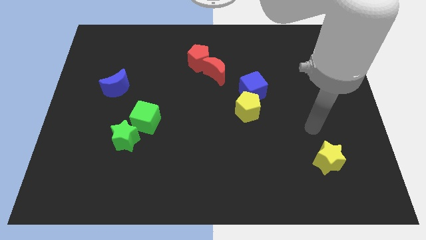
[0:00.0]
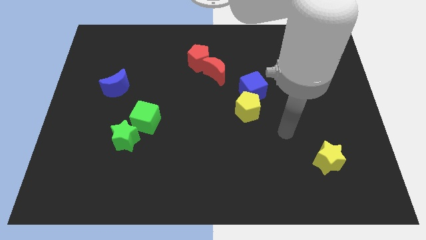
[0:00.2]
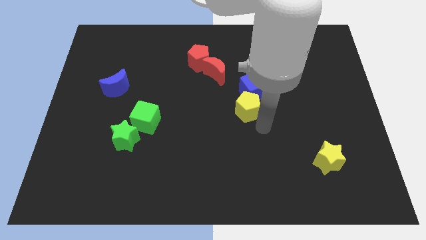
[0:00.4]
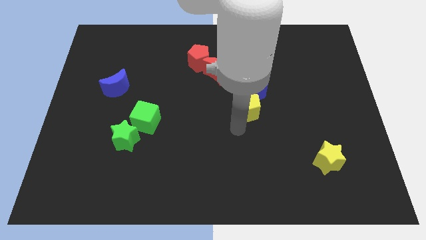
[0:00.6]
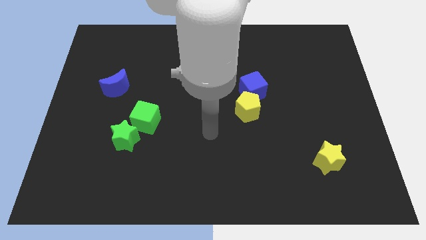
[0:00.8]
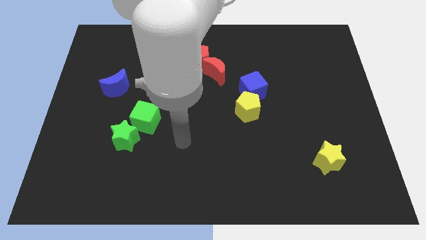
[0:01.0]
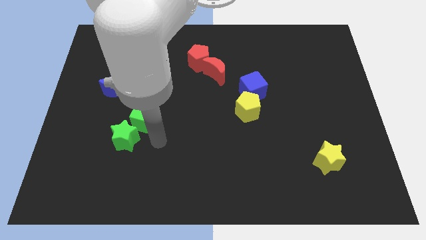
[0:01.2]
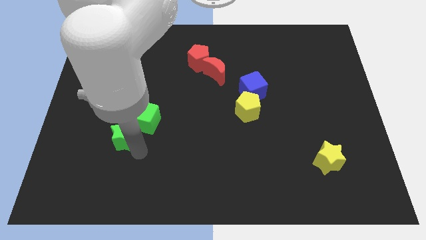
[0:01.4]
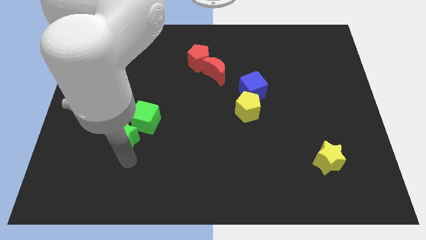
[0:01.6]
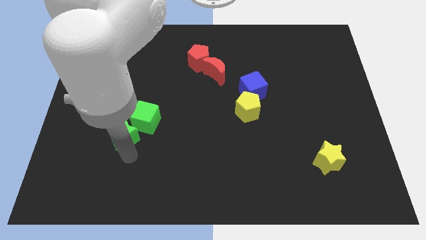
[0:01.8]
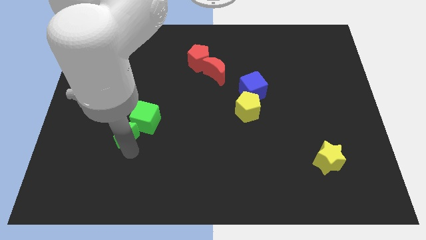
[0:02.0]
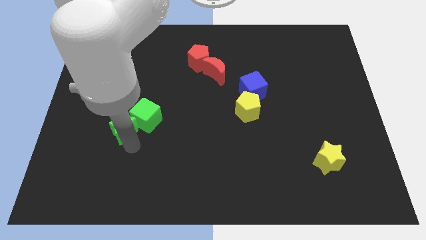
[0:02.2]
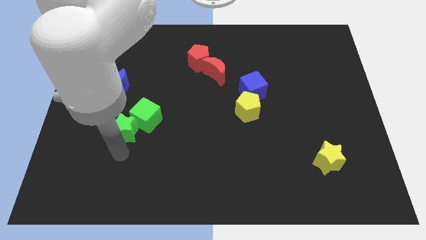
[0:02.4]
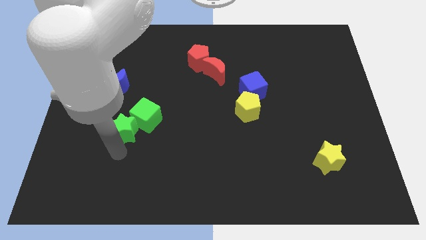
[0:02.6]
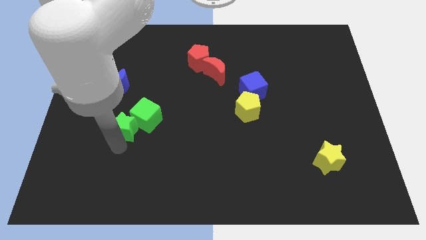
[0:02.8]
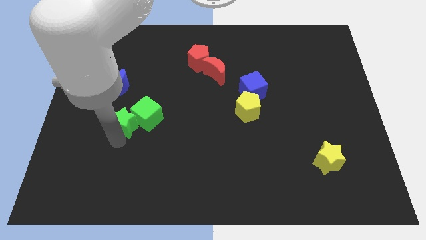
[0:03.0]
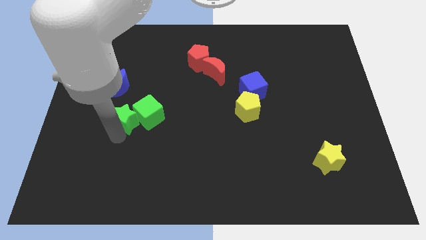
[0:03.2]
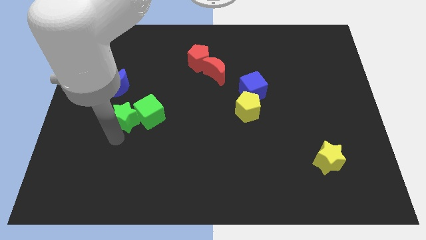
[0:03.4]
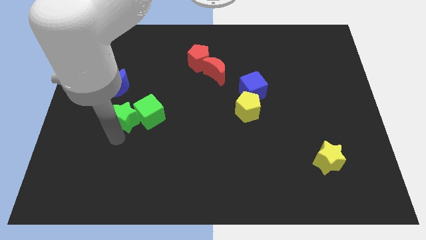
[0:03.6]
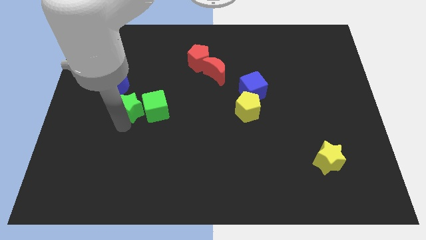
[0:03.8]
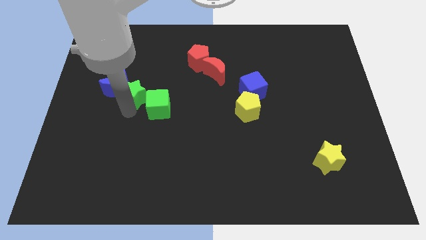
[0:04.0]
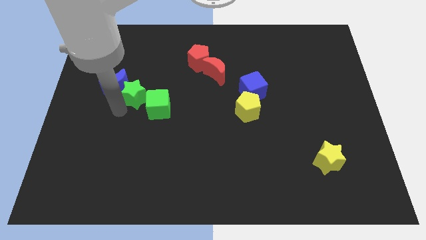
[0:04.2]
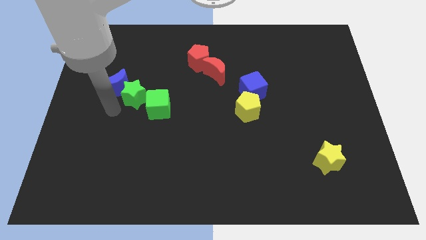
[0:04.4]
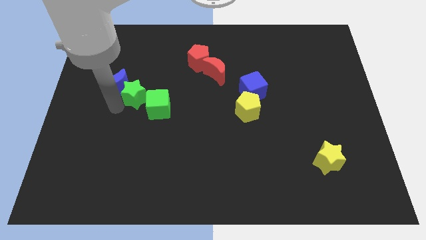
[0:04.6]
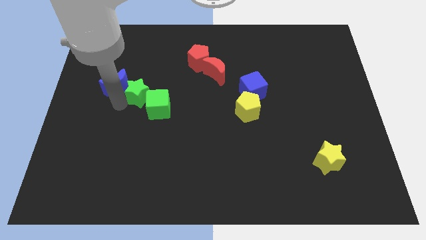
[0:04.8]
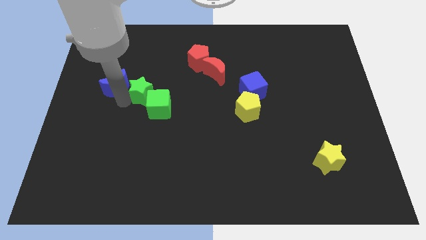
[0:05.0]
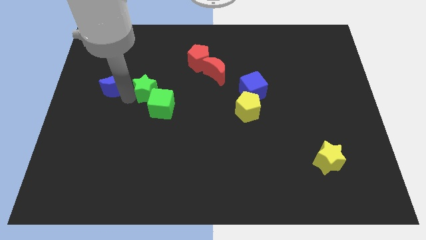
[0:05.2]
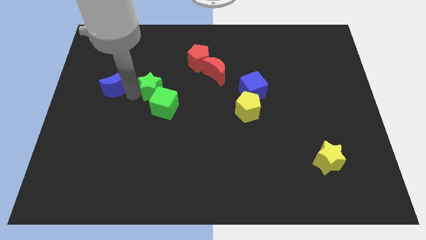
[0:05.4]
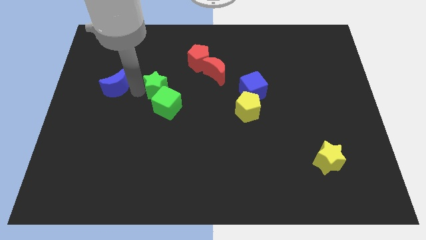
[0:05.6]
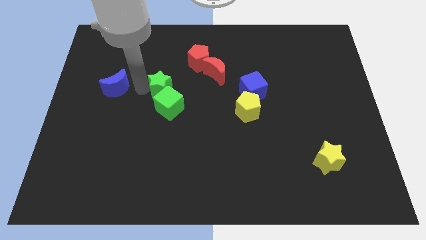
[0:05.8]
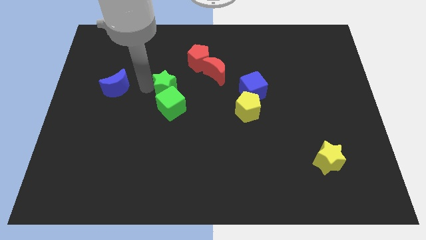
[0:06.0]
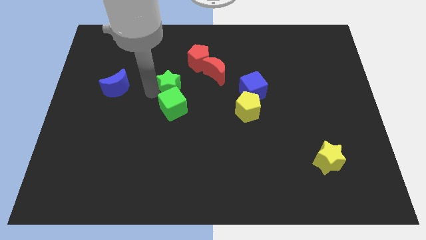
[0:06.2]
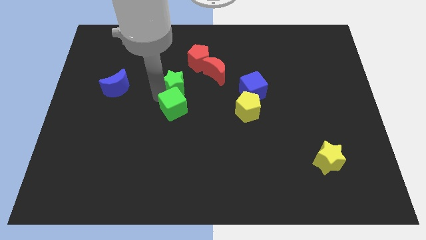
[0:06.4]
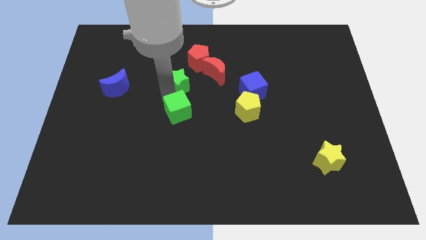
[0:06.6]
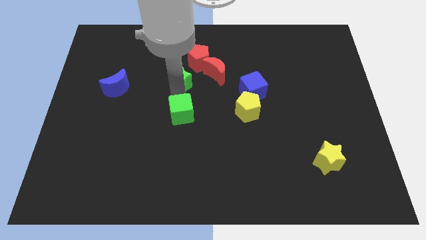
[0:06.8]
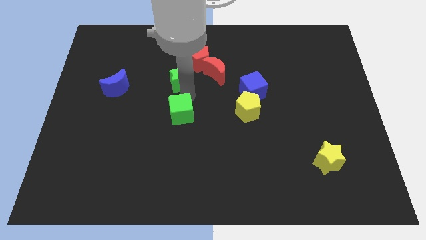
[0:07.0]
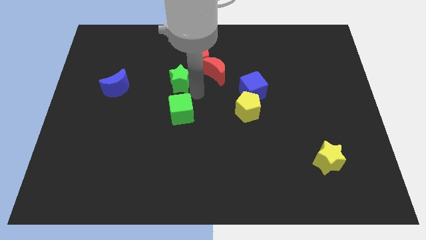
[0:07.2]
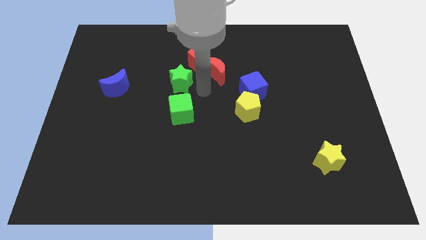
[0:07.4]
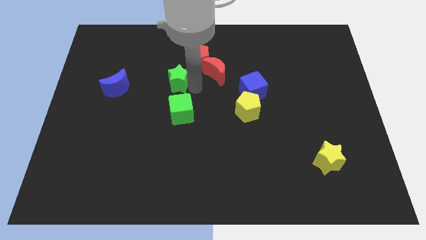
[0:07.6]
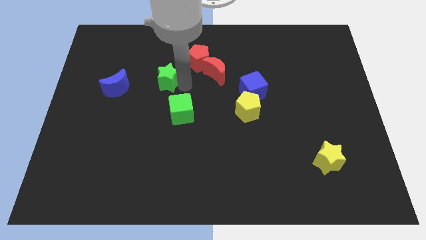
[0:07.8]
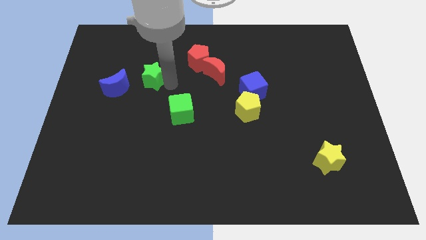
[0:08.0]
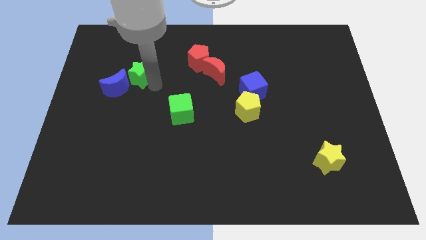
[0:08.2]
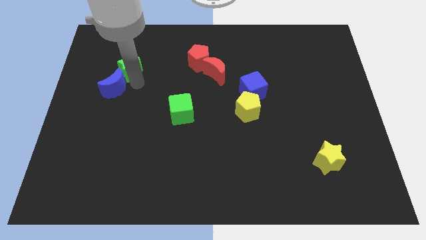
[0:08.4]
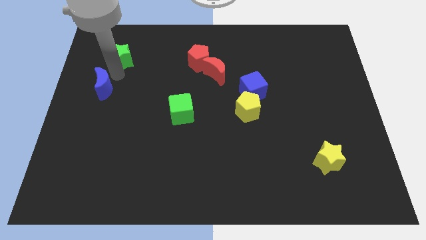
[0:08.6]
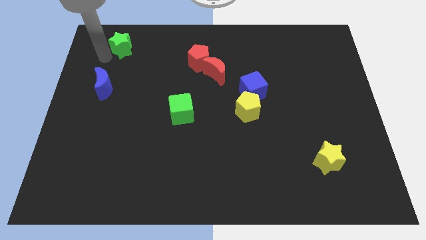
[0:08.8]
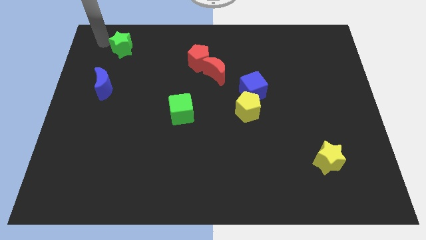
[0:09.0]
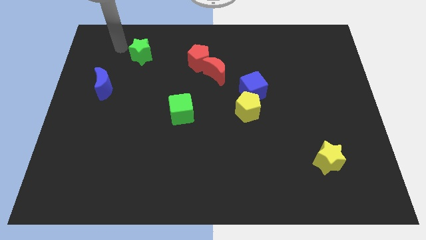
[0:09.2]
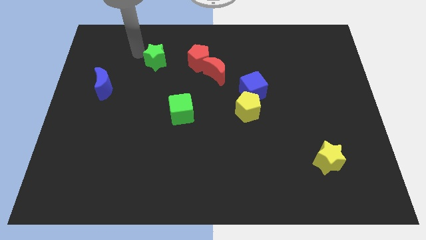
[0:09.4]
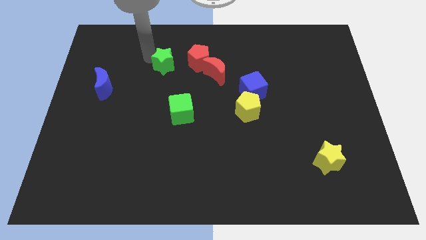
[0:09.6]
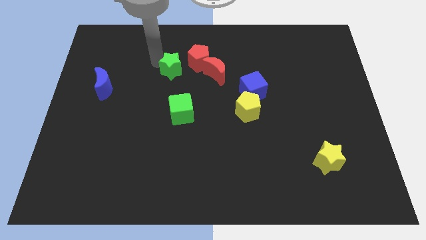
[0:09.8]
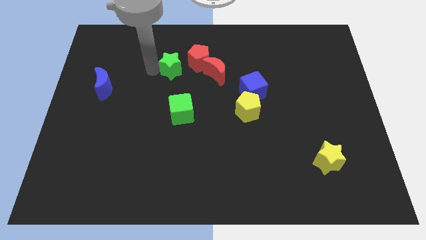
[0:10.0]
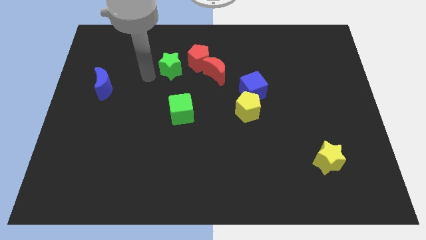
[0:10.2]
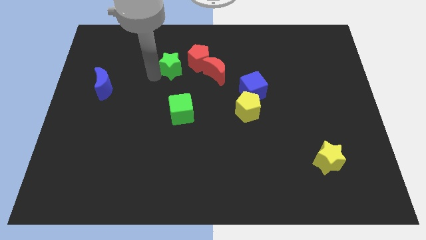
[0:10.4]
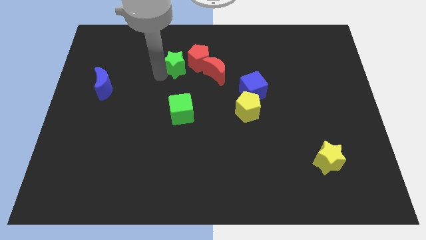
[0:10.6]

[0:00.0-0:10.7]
push the green star to the red pentagon

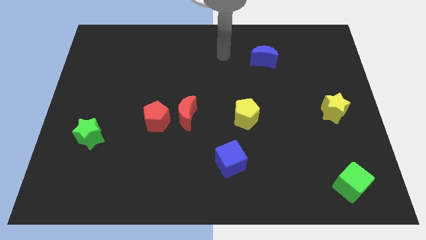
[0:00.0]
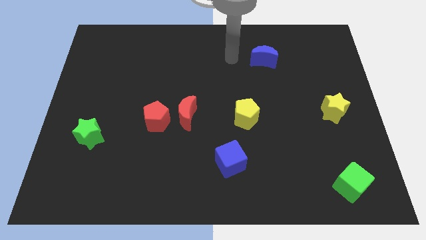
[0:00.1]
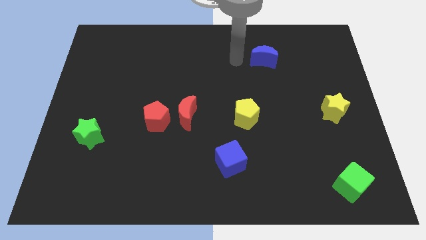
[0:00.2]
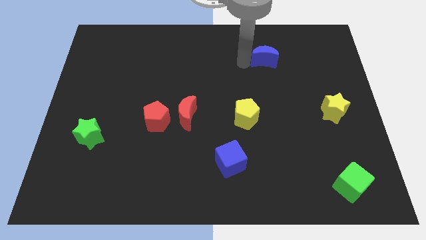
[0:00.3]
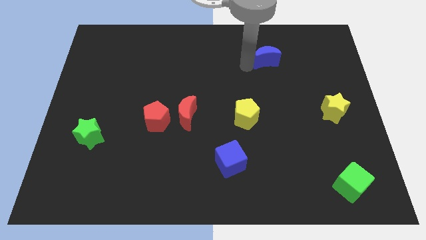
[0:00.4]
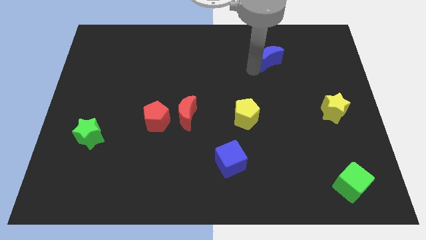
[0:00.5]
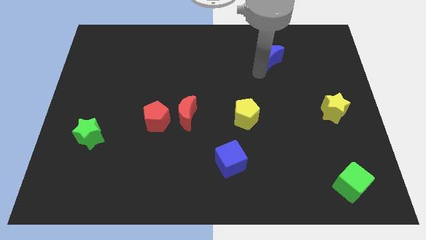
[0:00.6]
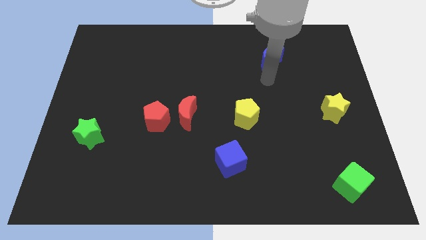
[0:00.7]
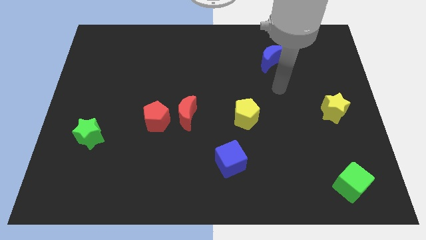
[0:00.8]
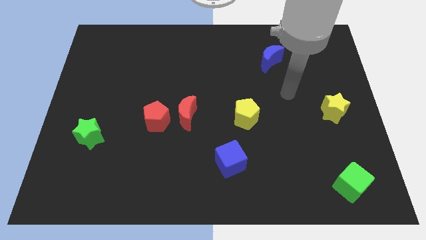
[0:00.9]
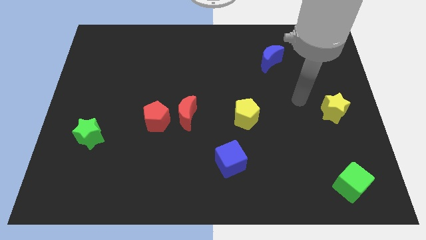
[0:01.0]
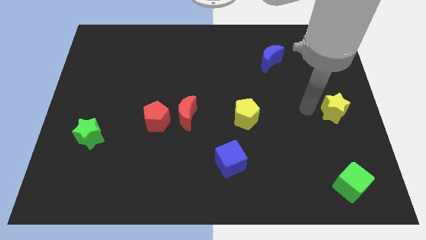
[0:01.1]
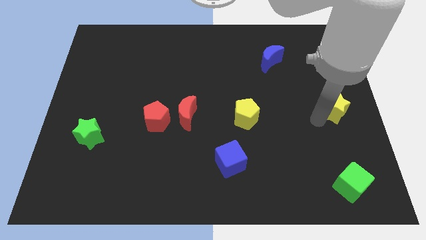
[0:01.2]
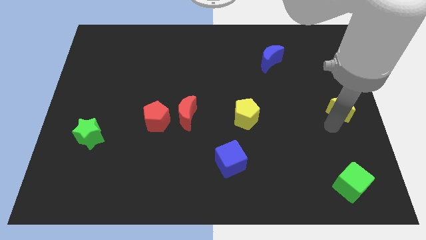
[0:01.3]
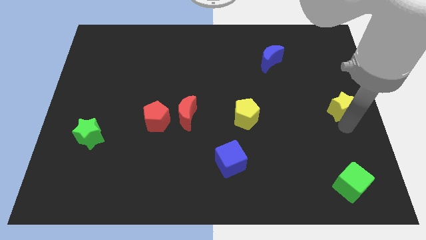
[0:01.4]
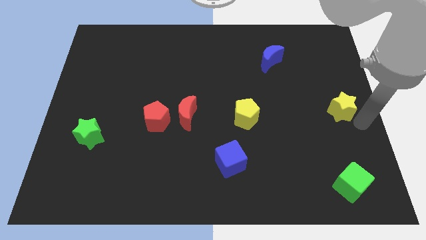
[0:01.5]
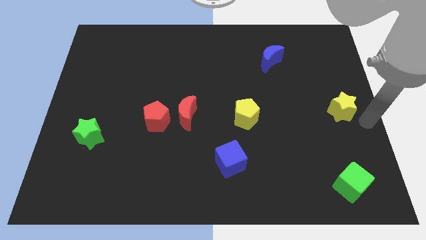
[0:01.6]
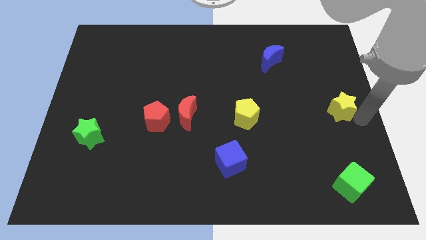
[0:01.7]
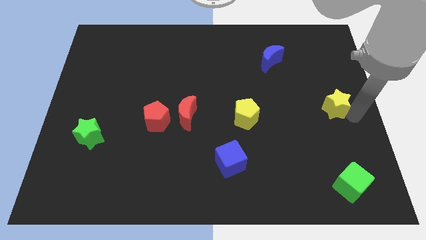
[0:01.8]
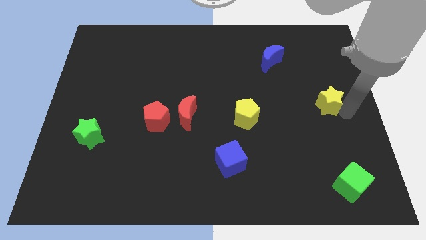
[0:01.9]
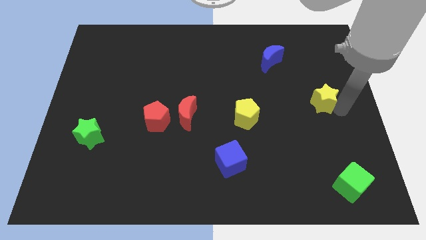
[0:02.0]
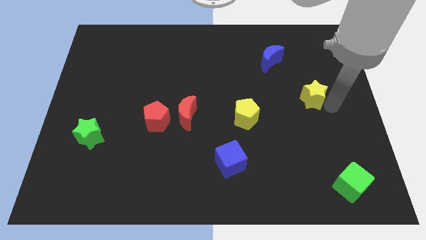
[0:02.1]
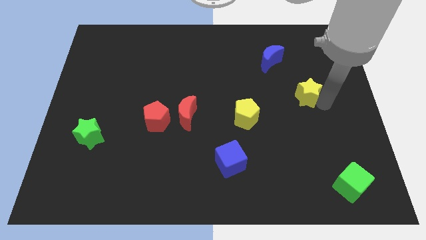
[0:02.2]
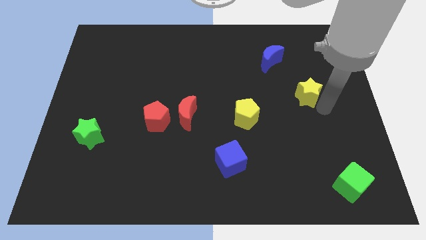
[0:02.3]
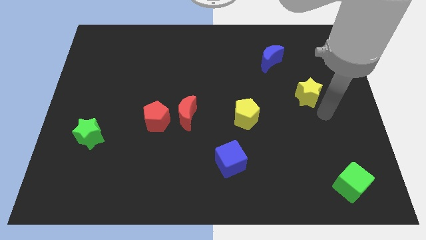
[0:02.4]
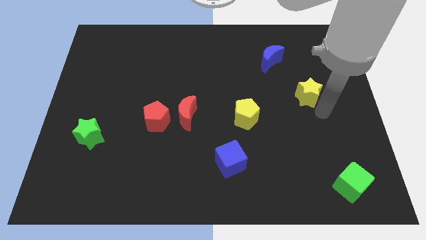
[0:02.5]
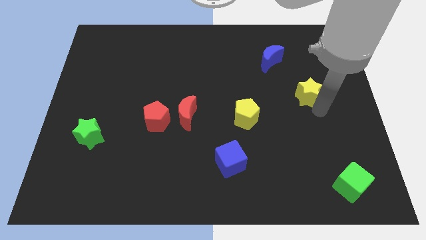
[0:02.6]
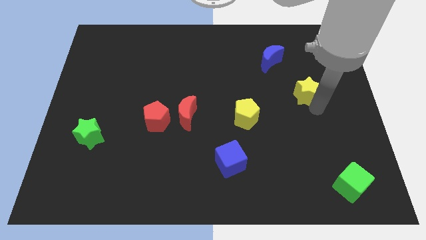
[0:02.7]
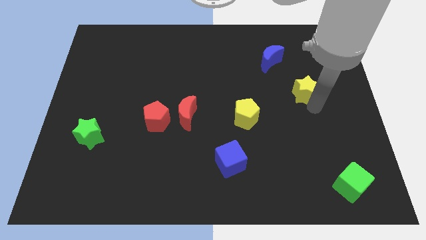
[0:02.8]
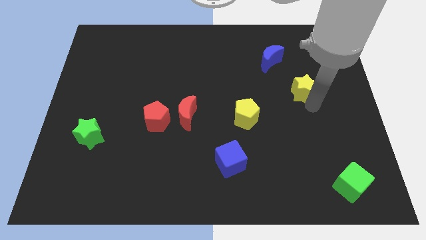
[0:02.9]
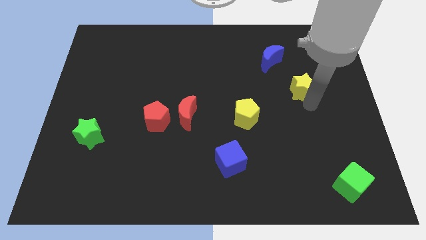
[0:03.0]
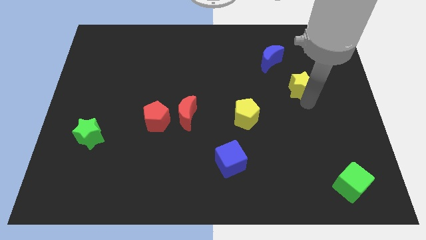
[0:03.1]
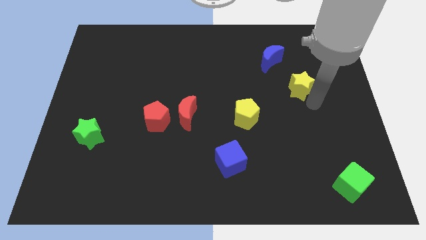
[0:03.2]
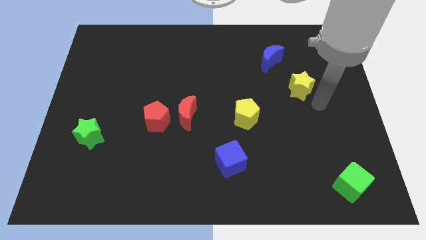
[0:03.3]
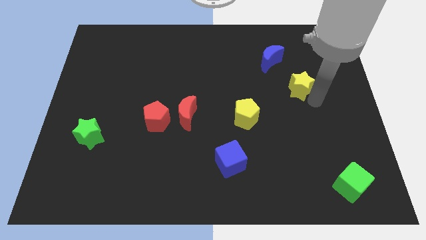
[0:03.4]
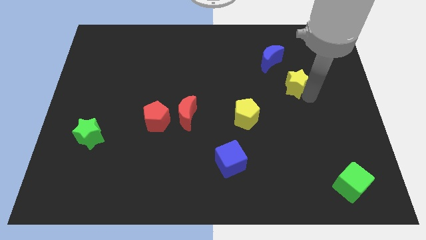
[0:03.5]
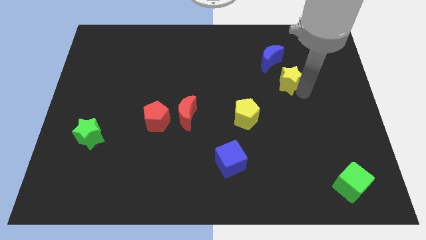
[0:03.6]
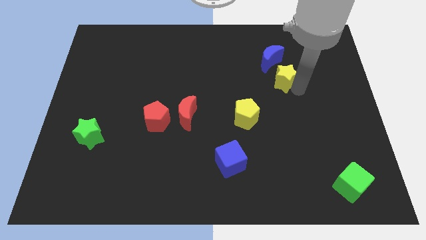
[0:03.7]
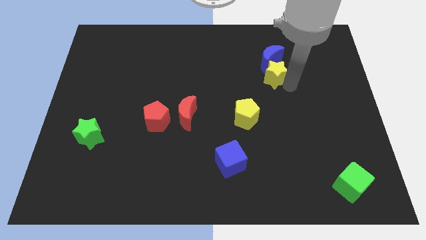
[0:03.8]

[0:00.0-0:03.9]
move the yellow star towards the blue moon
